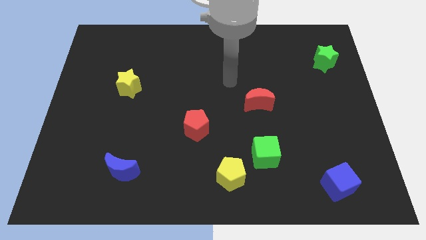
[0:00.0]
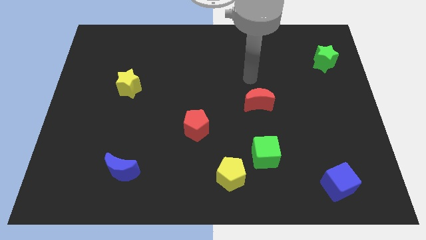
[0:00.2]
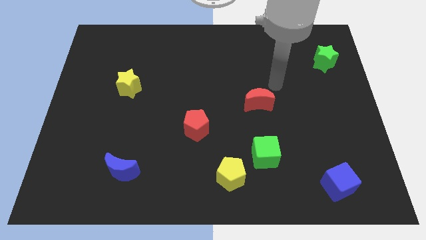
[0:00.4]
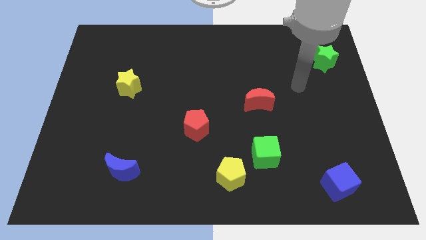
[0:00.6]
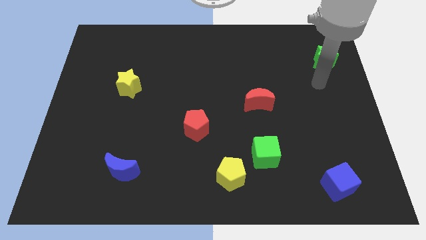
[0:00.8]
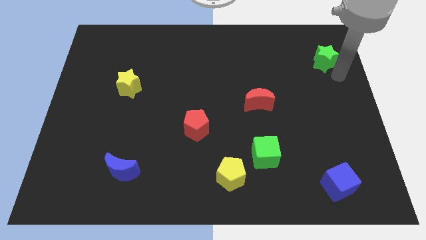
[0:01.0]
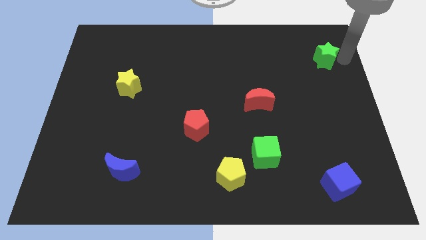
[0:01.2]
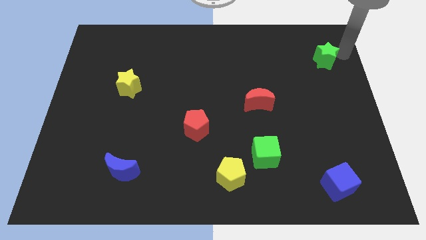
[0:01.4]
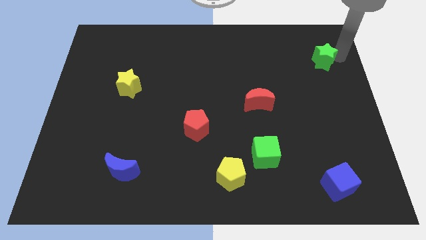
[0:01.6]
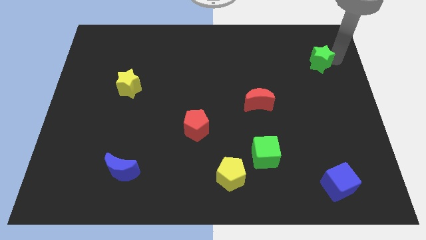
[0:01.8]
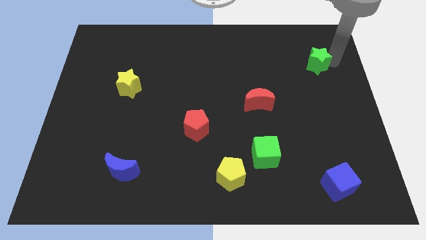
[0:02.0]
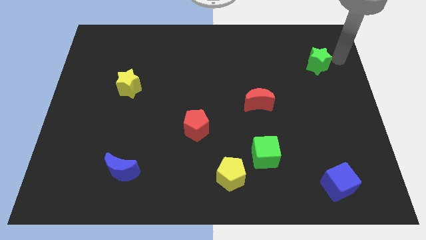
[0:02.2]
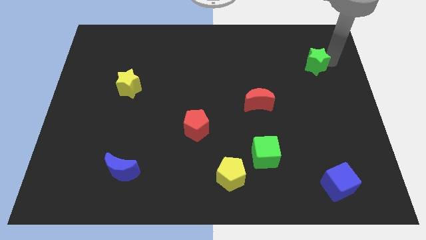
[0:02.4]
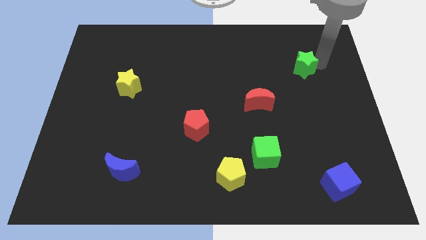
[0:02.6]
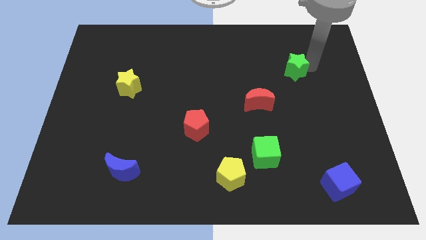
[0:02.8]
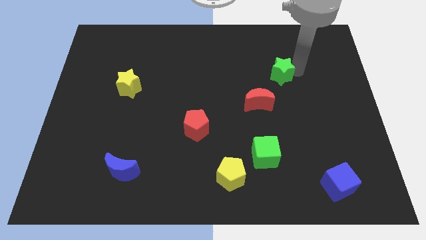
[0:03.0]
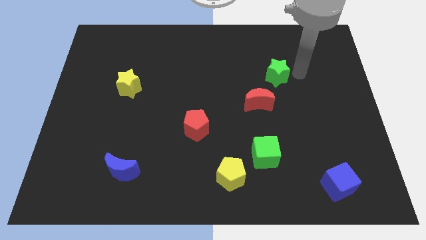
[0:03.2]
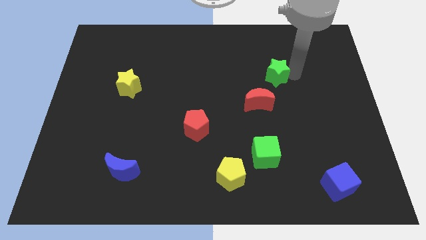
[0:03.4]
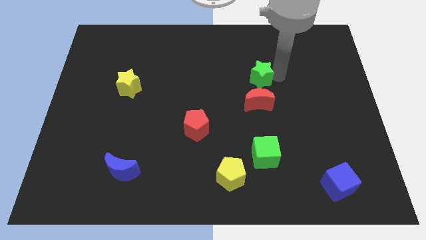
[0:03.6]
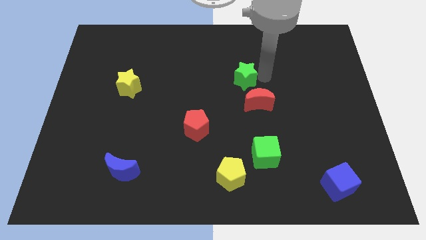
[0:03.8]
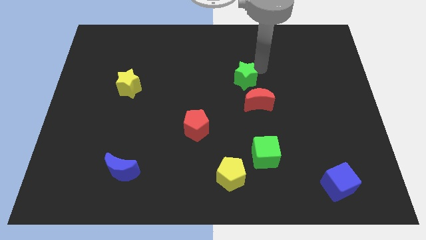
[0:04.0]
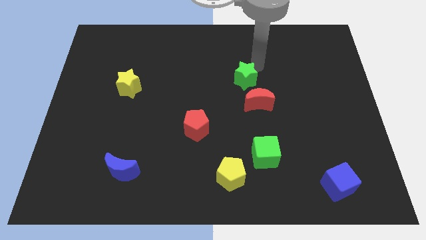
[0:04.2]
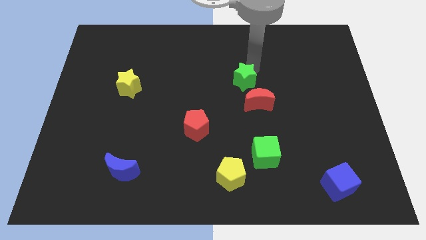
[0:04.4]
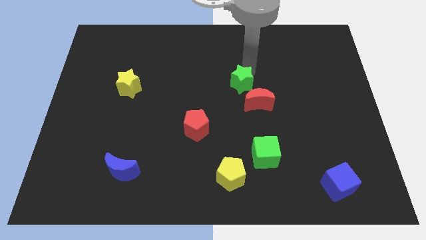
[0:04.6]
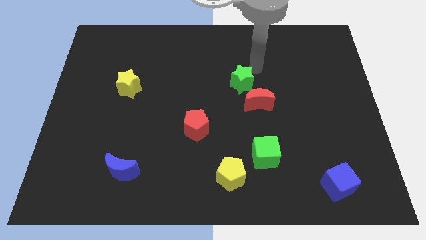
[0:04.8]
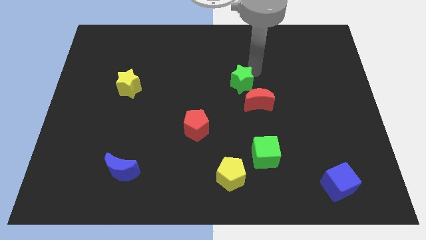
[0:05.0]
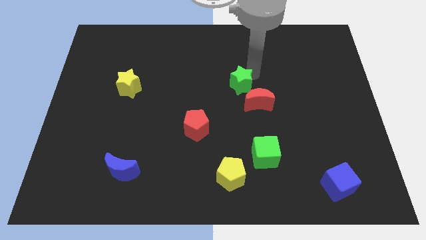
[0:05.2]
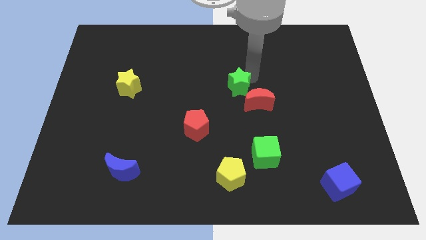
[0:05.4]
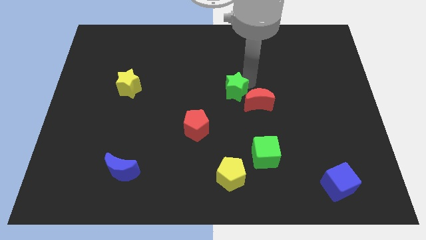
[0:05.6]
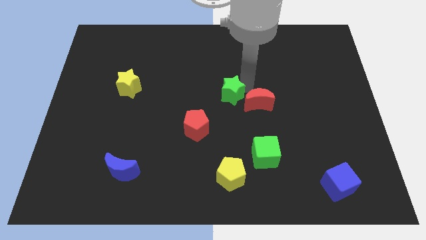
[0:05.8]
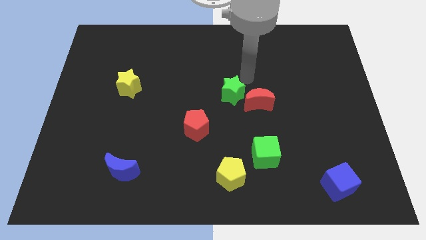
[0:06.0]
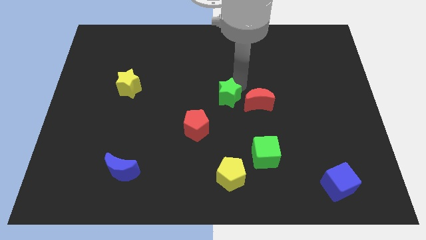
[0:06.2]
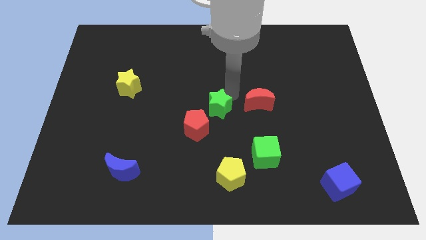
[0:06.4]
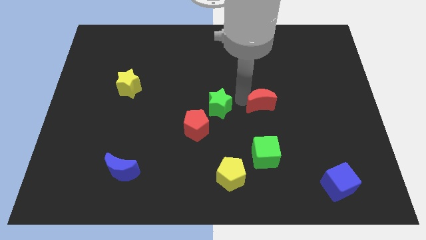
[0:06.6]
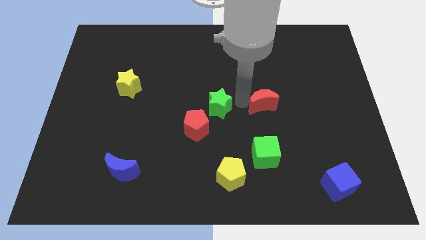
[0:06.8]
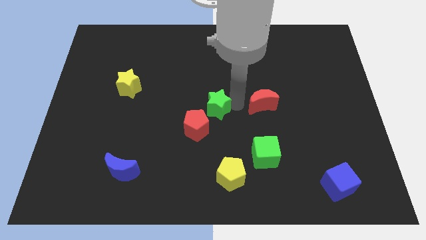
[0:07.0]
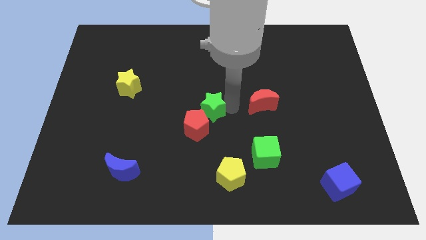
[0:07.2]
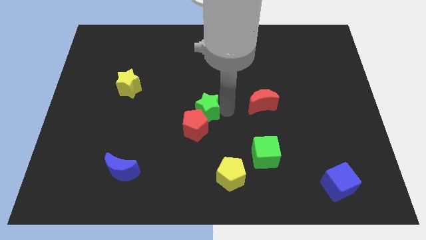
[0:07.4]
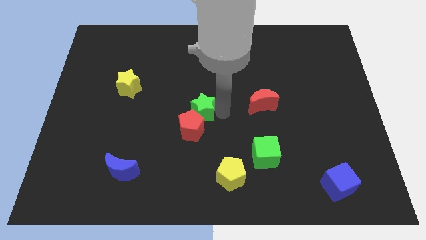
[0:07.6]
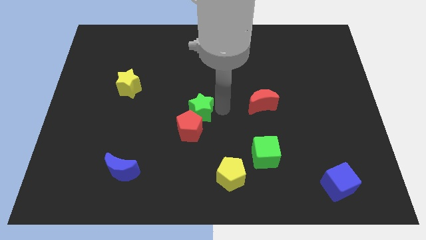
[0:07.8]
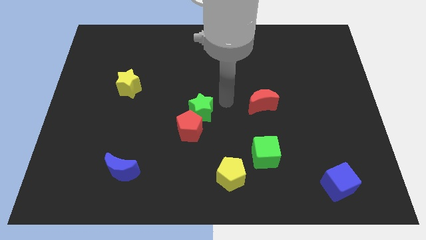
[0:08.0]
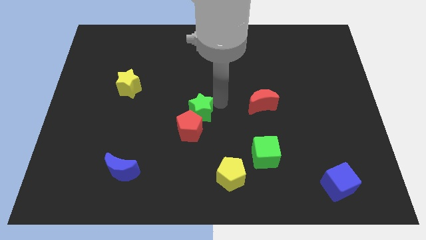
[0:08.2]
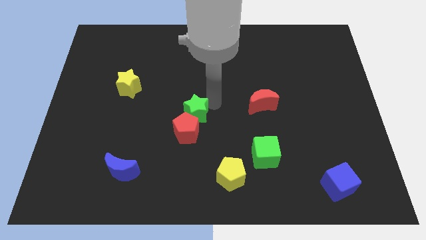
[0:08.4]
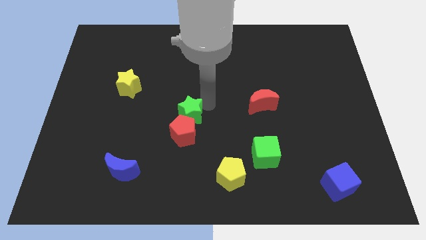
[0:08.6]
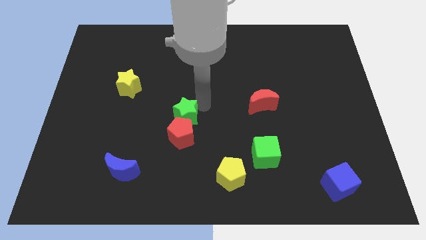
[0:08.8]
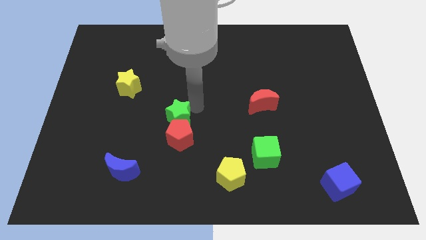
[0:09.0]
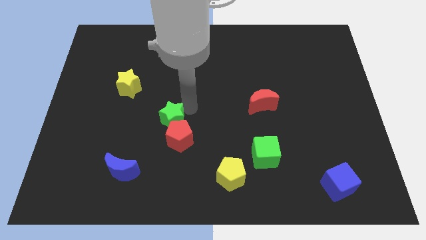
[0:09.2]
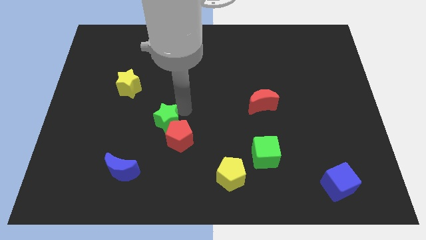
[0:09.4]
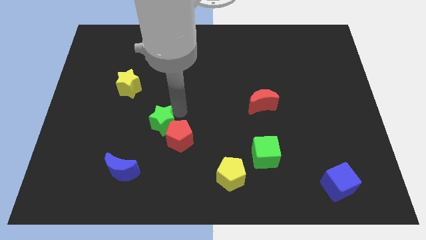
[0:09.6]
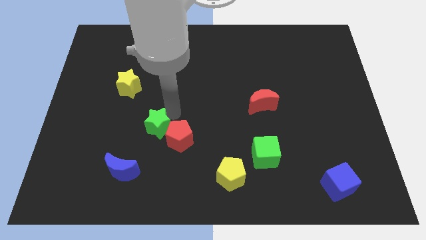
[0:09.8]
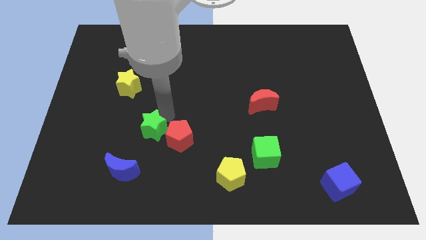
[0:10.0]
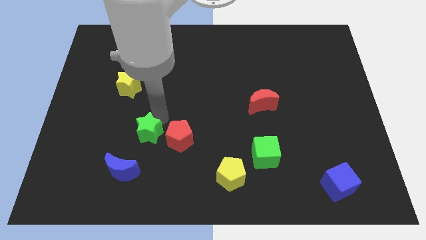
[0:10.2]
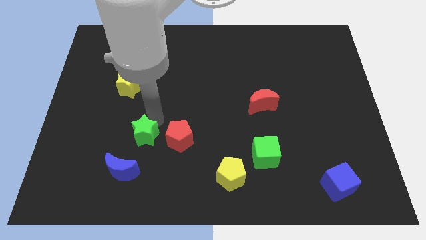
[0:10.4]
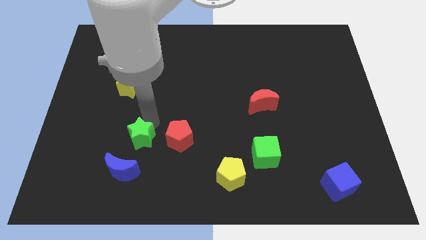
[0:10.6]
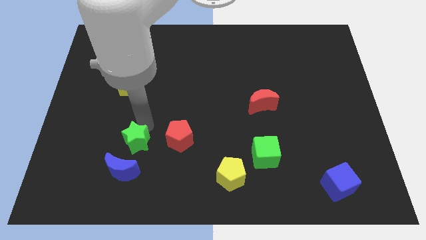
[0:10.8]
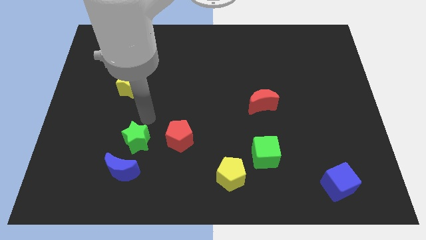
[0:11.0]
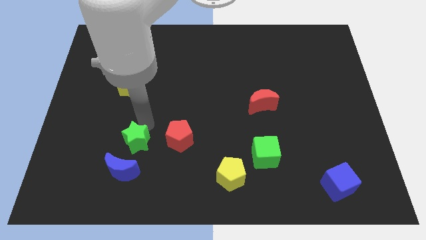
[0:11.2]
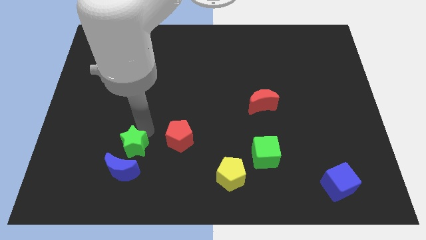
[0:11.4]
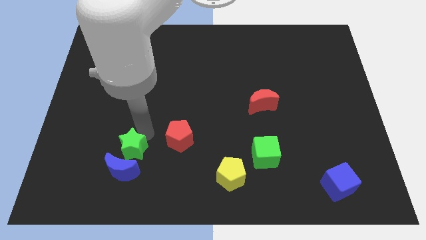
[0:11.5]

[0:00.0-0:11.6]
push the green star close to the blue moon

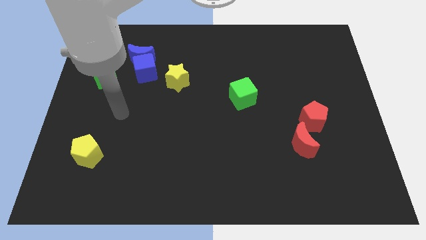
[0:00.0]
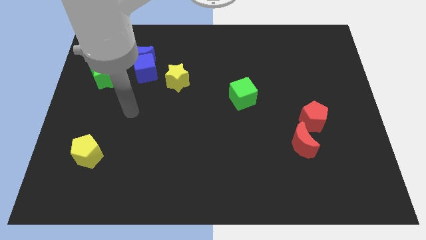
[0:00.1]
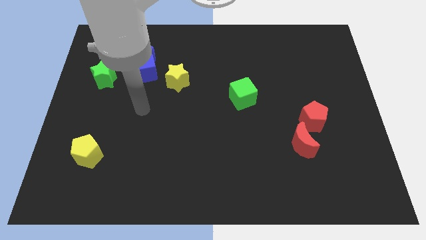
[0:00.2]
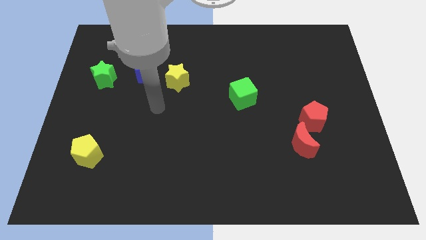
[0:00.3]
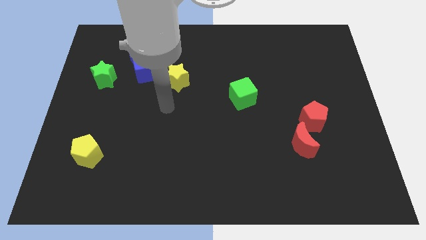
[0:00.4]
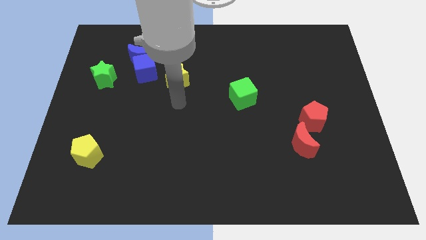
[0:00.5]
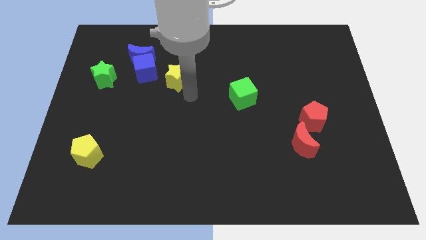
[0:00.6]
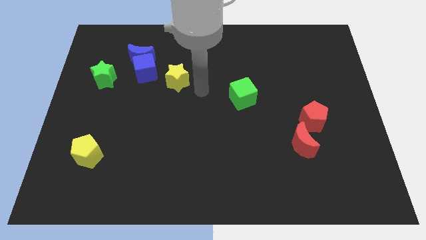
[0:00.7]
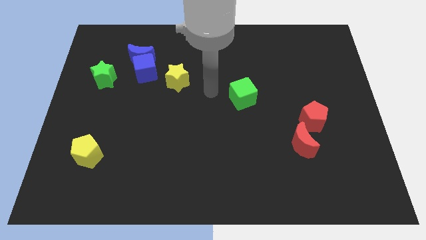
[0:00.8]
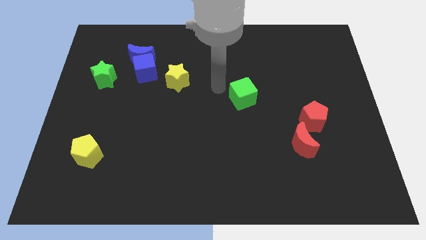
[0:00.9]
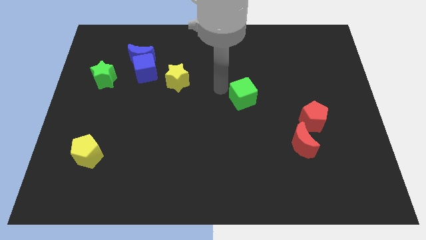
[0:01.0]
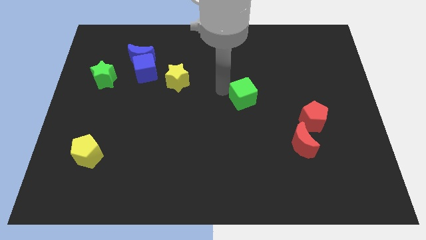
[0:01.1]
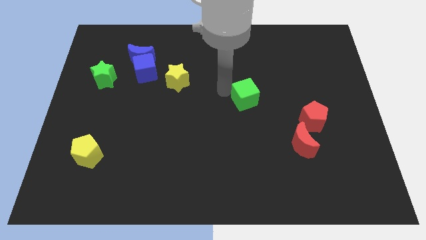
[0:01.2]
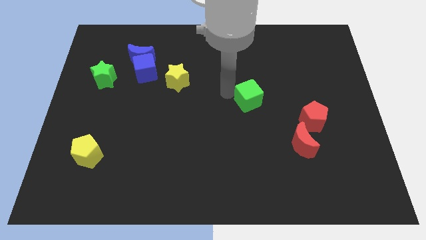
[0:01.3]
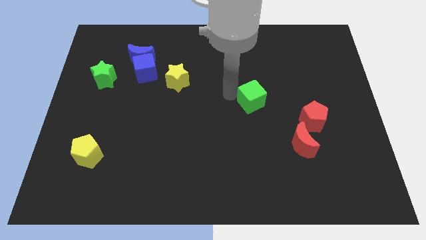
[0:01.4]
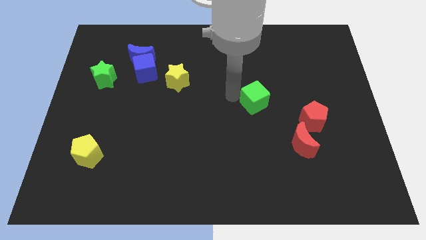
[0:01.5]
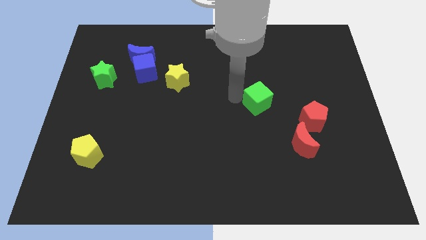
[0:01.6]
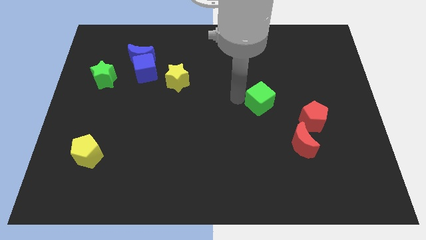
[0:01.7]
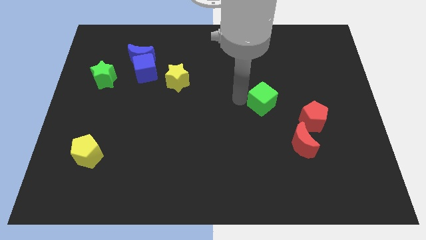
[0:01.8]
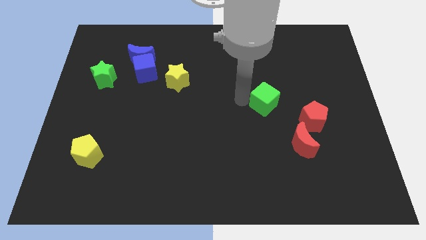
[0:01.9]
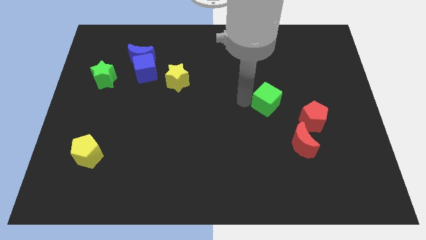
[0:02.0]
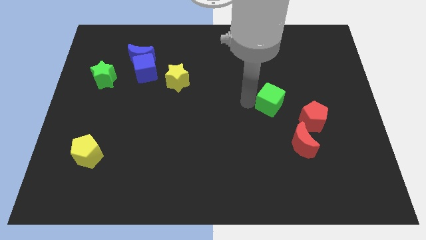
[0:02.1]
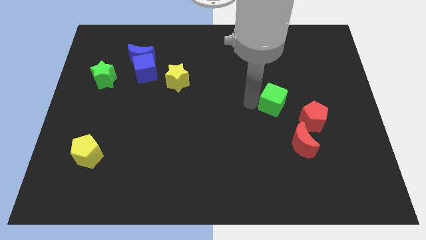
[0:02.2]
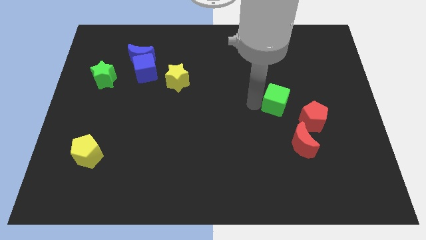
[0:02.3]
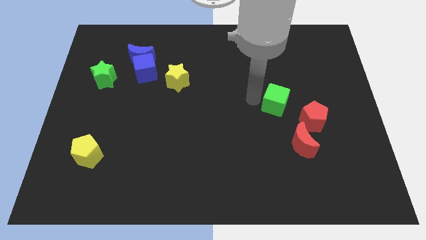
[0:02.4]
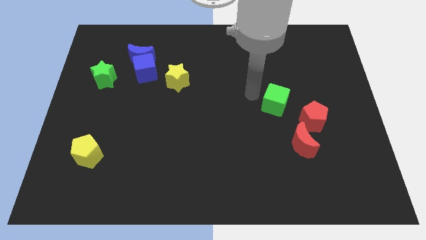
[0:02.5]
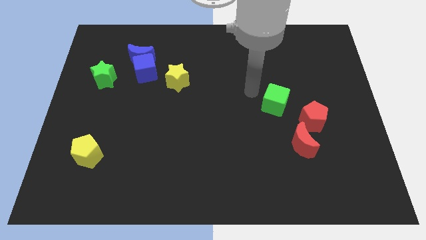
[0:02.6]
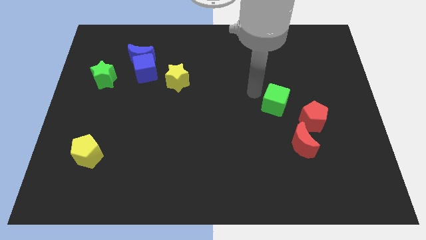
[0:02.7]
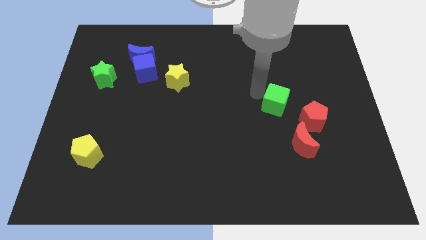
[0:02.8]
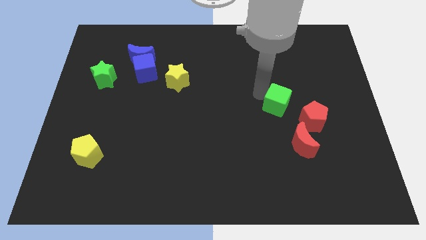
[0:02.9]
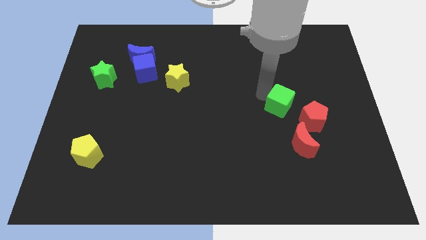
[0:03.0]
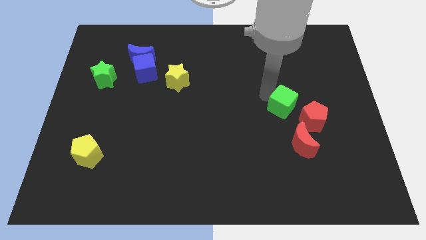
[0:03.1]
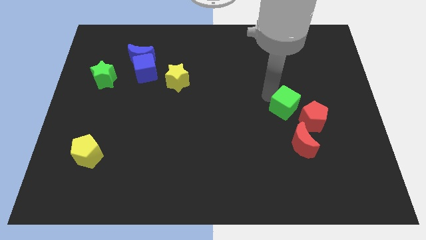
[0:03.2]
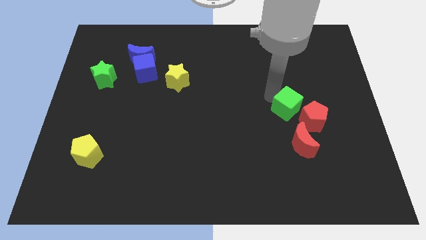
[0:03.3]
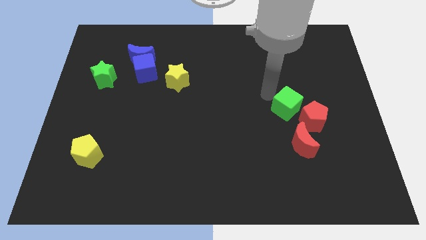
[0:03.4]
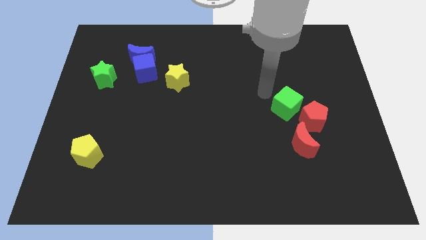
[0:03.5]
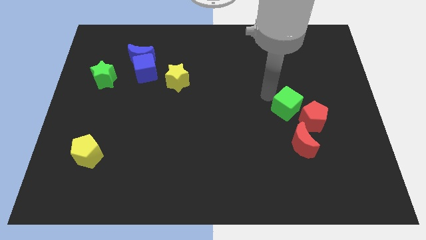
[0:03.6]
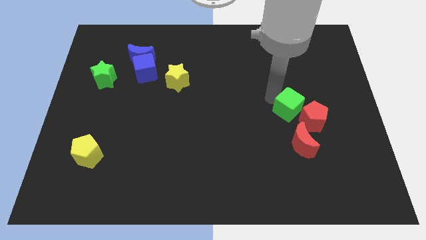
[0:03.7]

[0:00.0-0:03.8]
put the green cube next to the red pentagon
